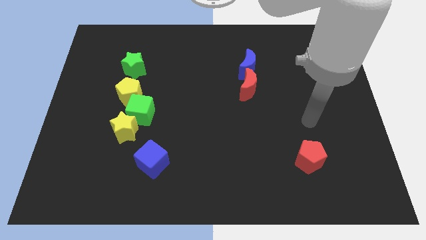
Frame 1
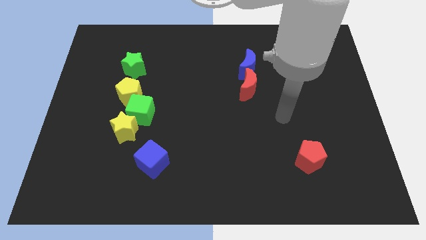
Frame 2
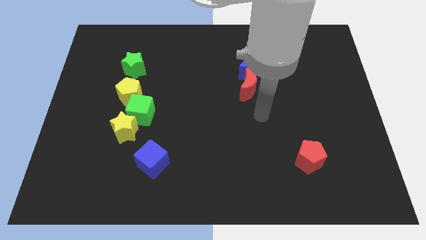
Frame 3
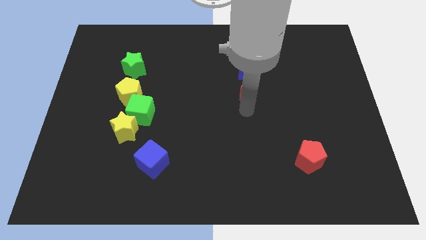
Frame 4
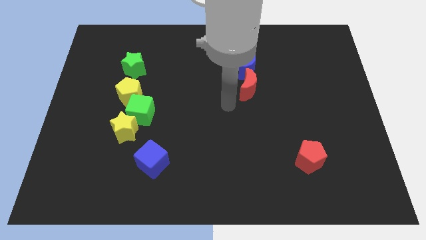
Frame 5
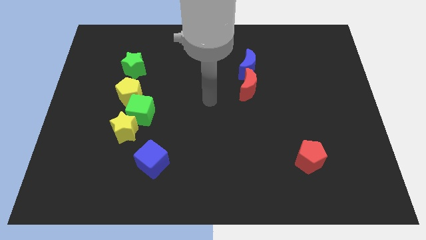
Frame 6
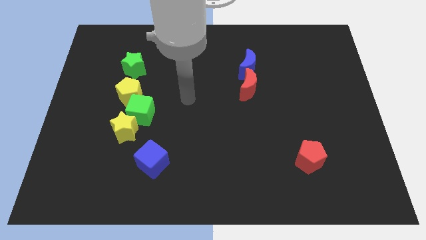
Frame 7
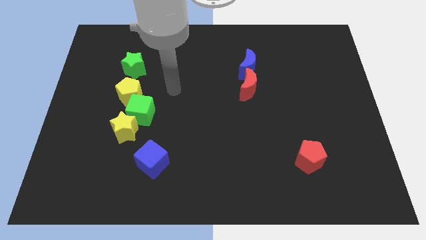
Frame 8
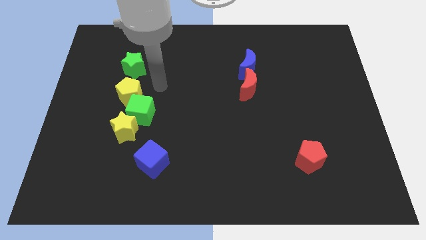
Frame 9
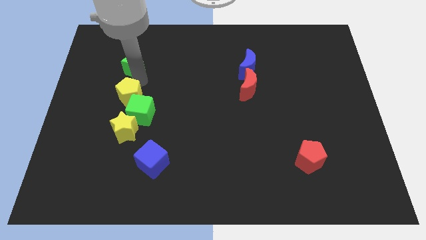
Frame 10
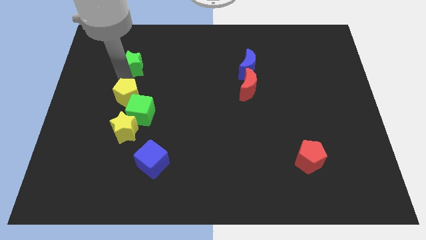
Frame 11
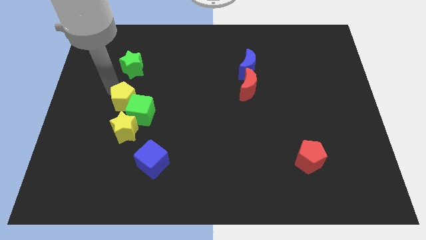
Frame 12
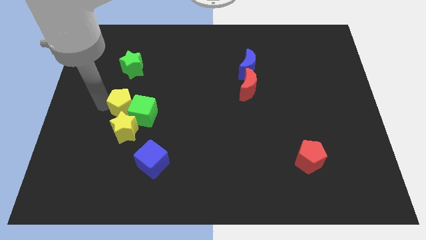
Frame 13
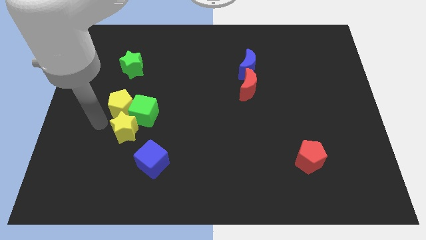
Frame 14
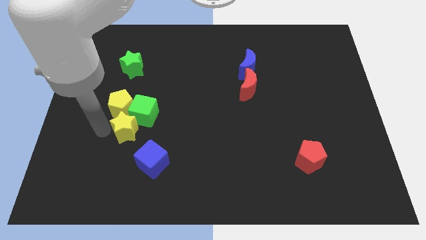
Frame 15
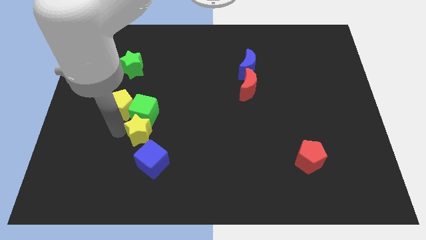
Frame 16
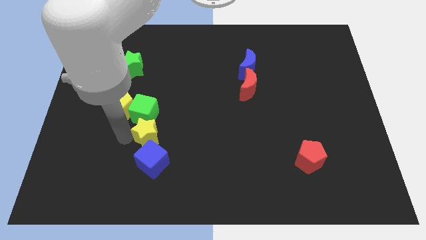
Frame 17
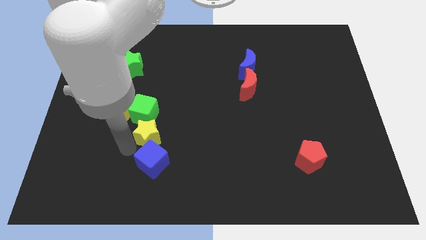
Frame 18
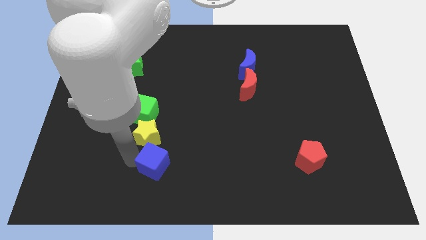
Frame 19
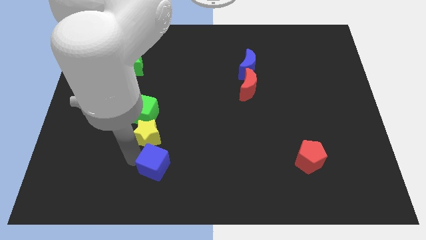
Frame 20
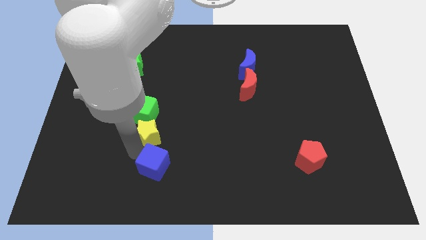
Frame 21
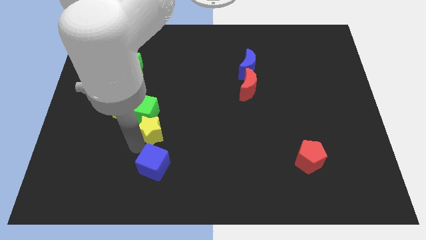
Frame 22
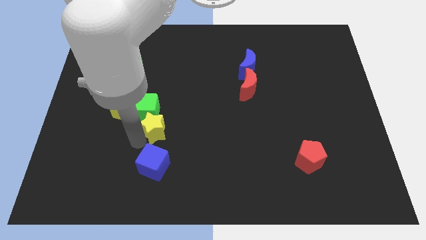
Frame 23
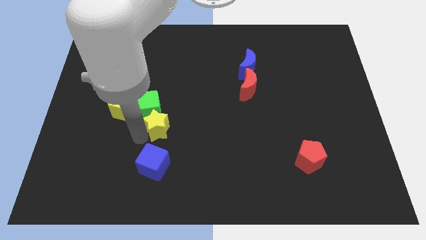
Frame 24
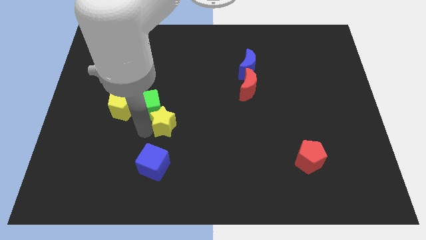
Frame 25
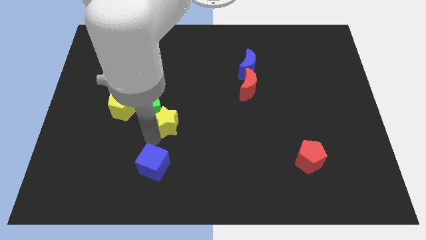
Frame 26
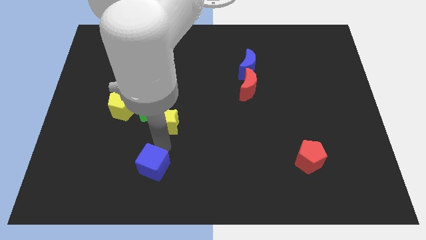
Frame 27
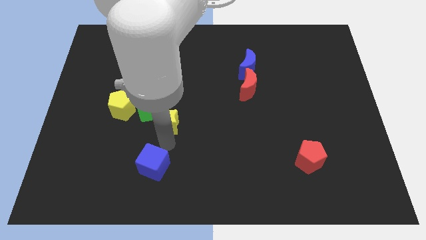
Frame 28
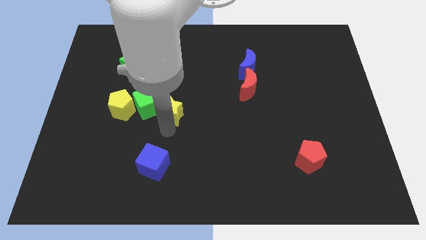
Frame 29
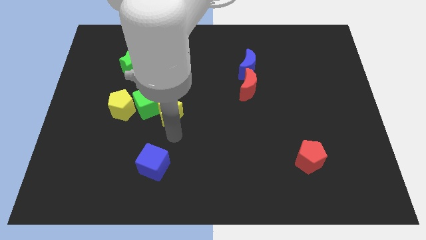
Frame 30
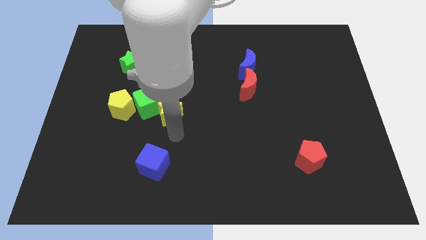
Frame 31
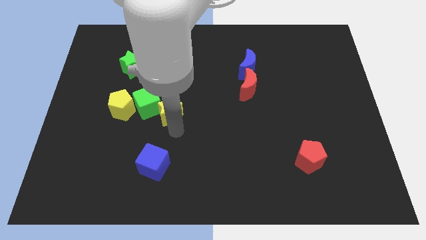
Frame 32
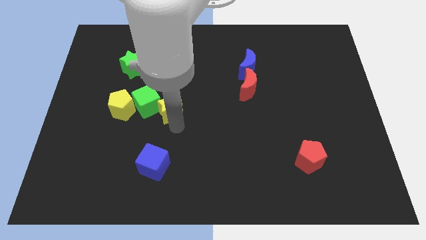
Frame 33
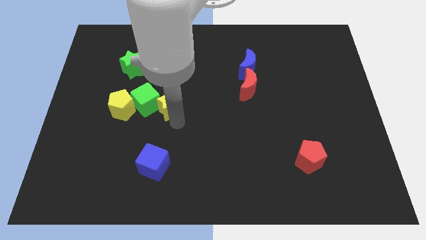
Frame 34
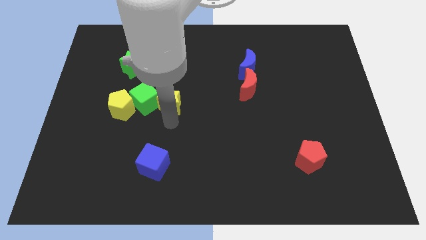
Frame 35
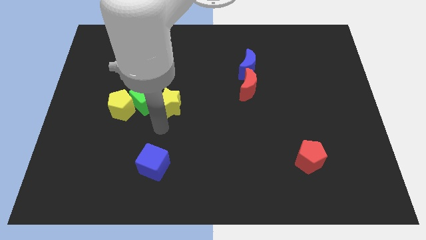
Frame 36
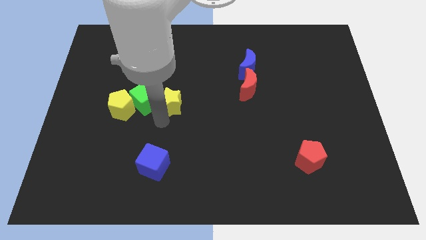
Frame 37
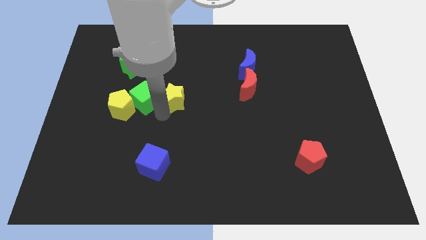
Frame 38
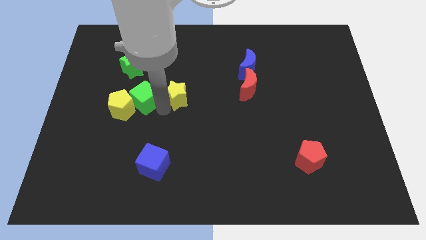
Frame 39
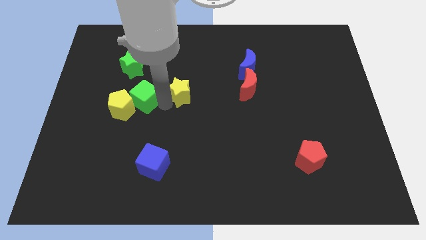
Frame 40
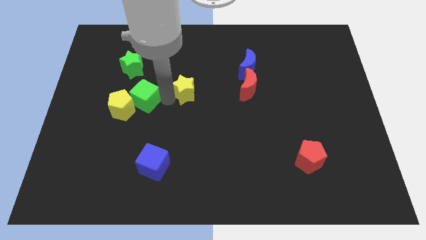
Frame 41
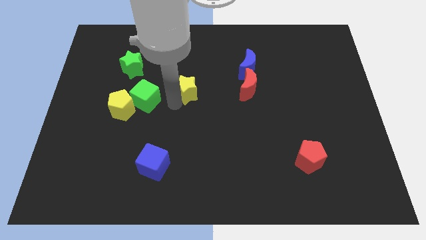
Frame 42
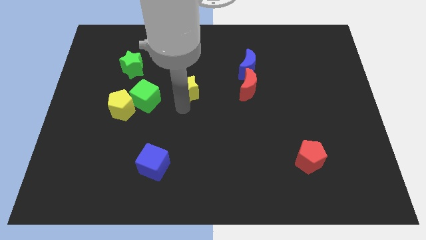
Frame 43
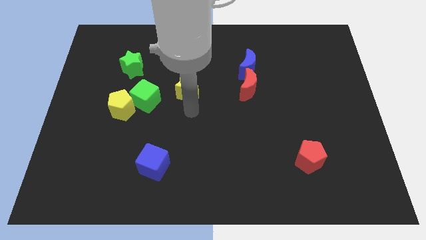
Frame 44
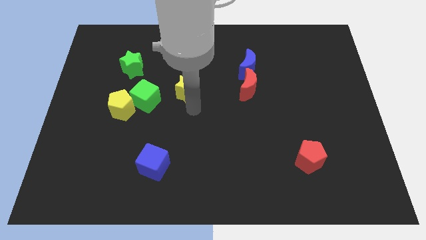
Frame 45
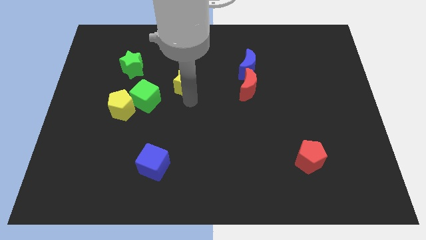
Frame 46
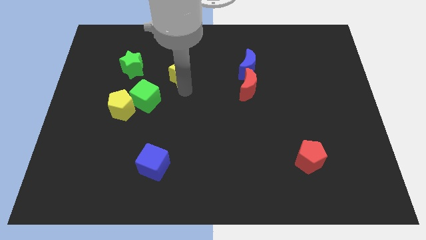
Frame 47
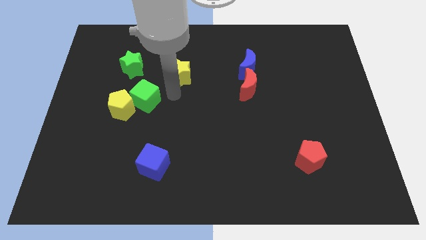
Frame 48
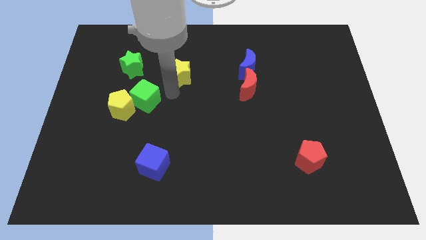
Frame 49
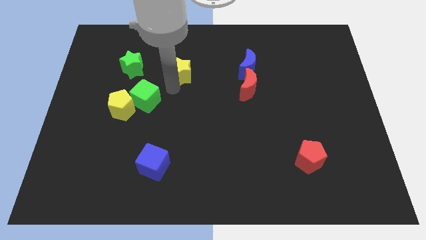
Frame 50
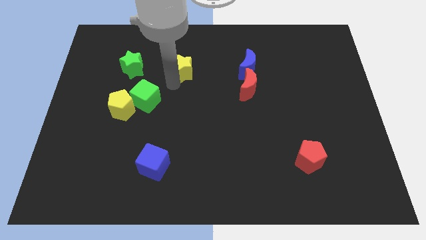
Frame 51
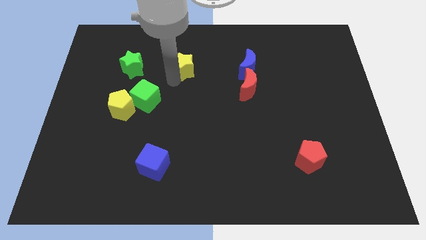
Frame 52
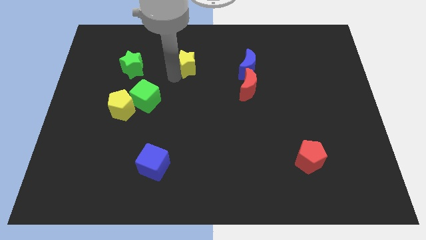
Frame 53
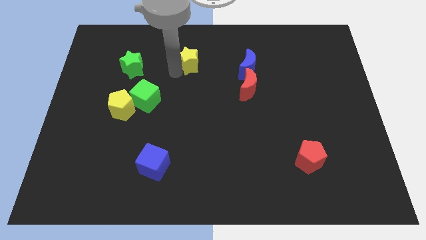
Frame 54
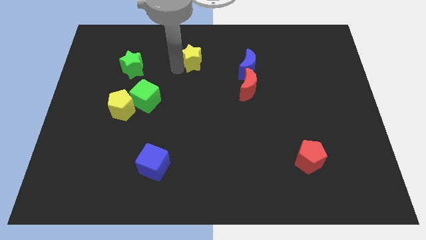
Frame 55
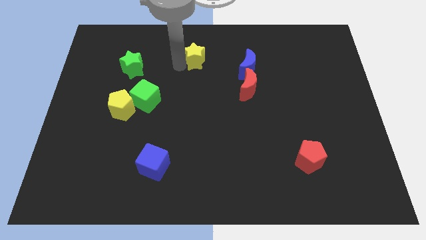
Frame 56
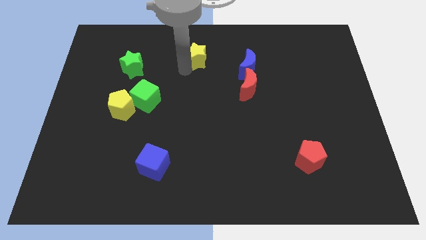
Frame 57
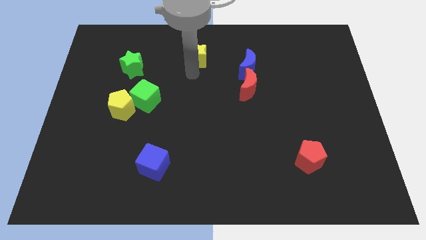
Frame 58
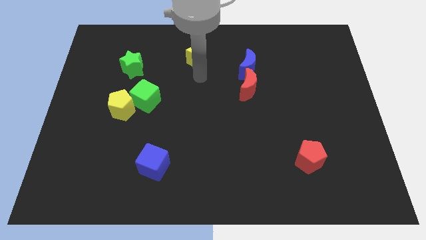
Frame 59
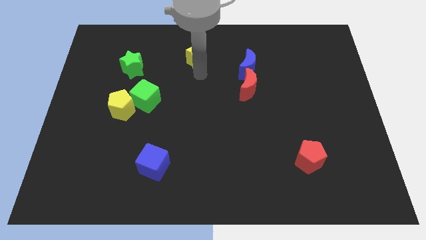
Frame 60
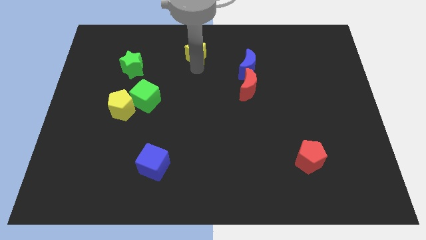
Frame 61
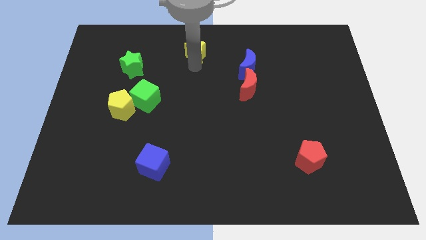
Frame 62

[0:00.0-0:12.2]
slide the yellow star to the top side
